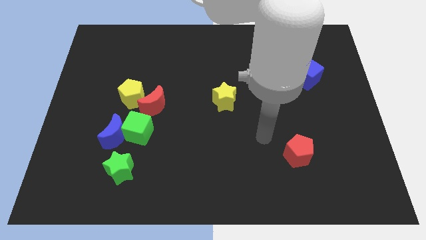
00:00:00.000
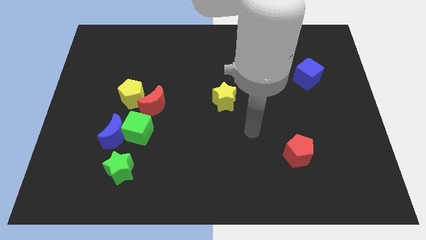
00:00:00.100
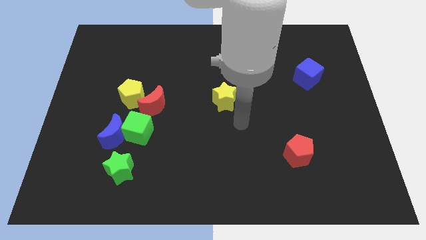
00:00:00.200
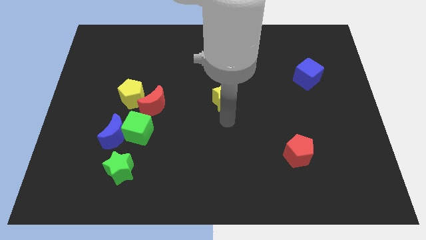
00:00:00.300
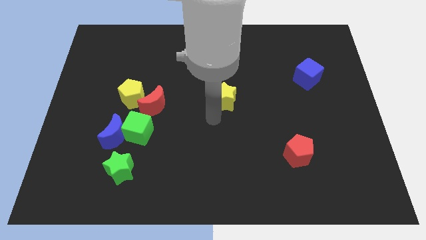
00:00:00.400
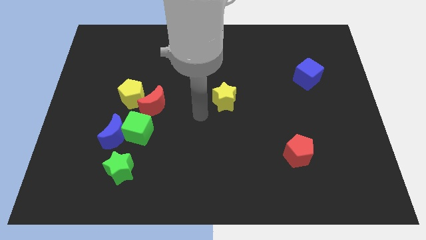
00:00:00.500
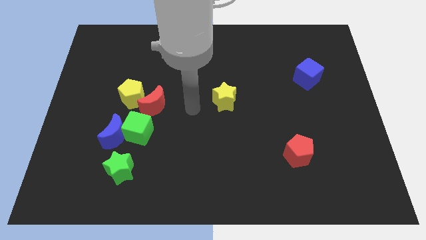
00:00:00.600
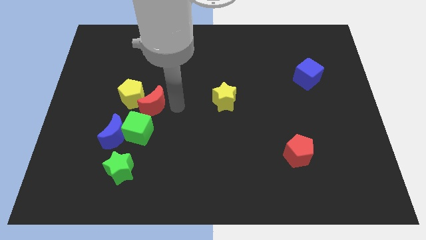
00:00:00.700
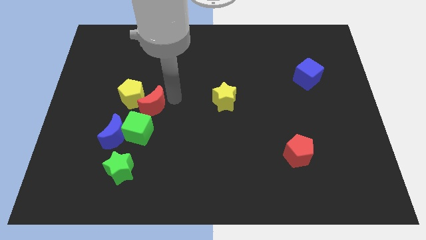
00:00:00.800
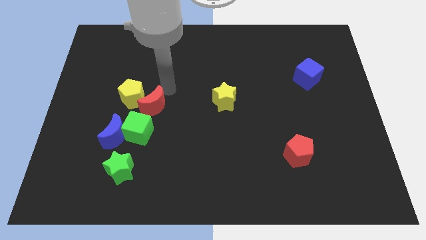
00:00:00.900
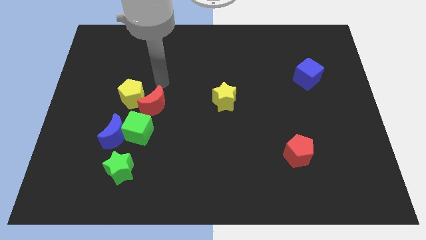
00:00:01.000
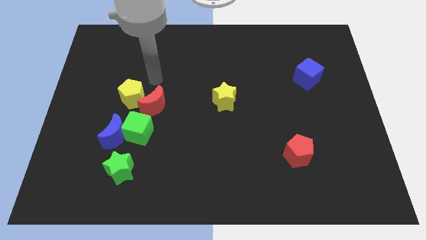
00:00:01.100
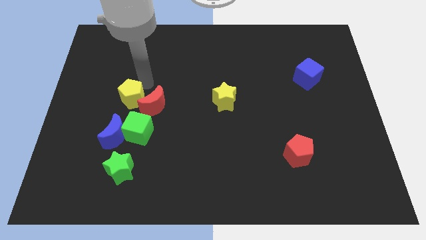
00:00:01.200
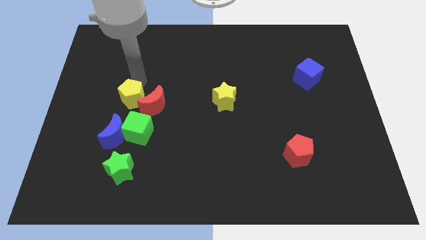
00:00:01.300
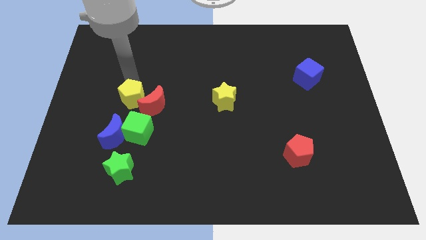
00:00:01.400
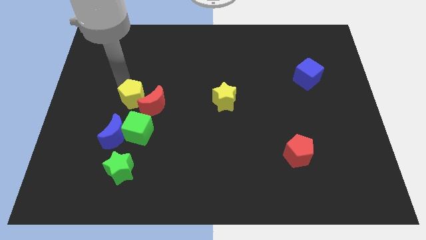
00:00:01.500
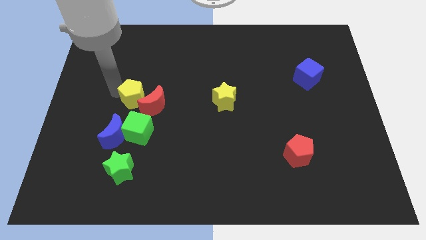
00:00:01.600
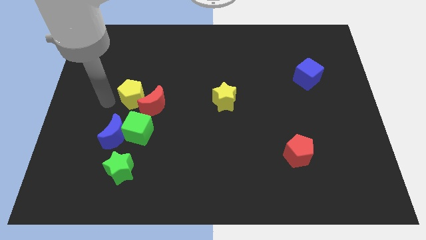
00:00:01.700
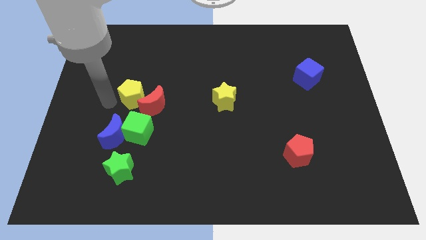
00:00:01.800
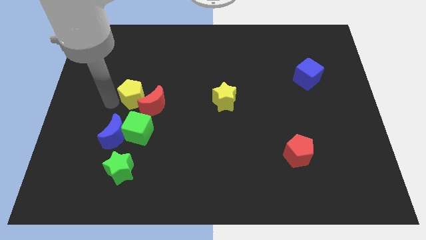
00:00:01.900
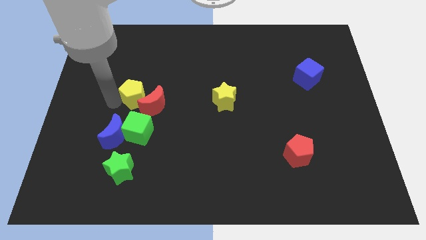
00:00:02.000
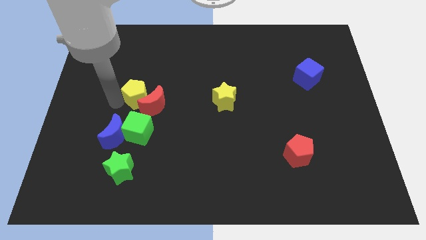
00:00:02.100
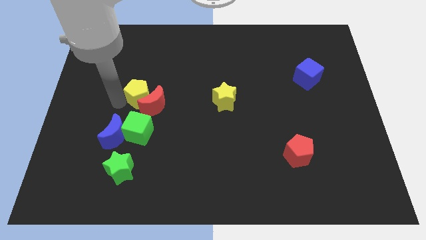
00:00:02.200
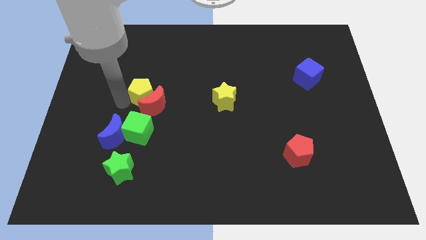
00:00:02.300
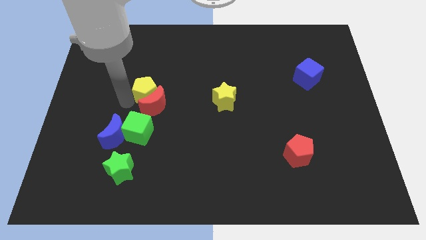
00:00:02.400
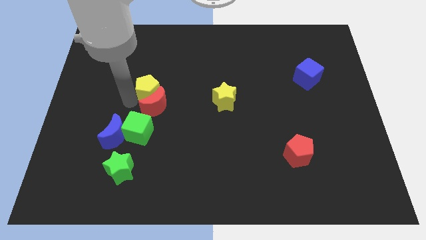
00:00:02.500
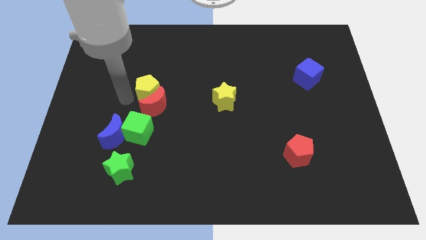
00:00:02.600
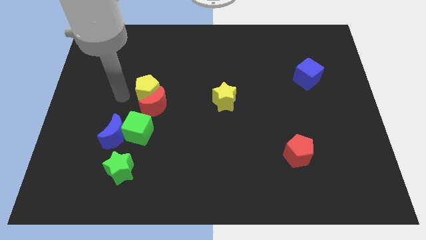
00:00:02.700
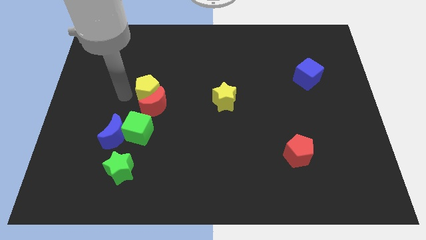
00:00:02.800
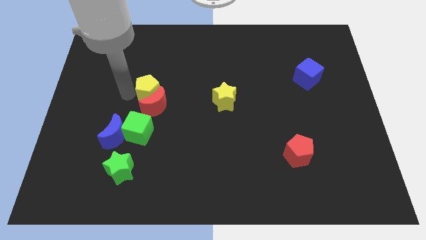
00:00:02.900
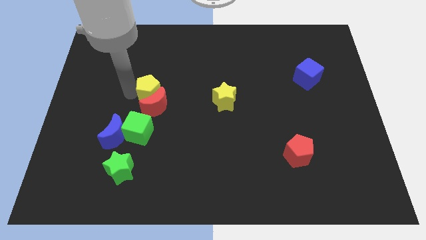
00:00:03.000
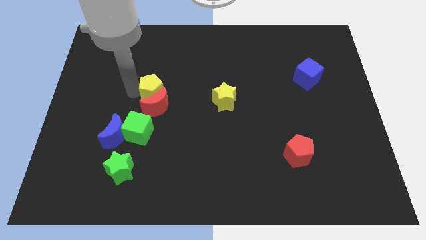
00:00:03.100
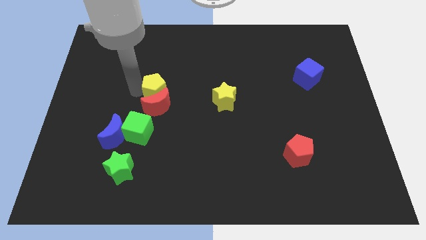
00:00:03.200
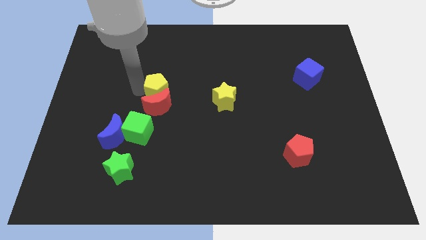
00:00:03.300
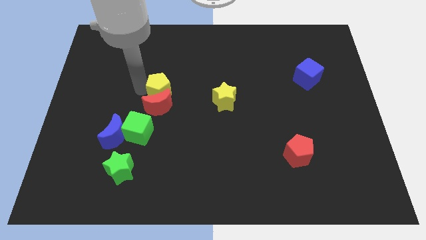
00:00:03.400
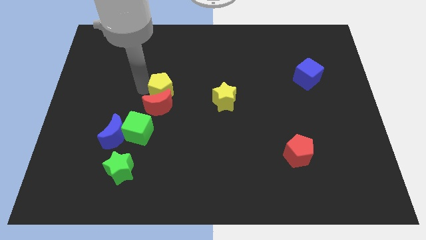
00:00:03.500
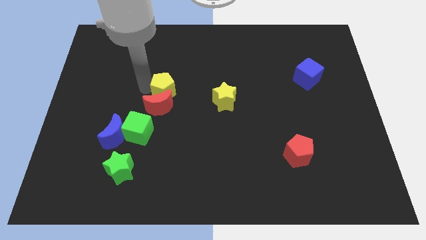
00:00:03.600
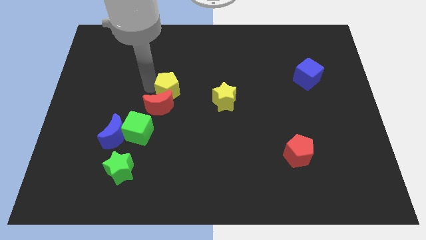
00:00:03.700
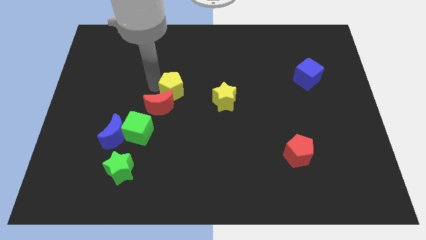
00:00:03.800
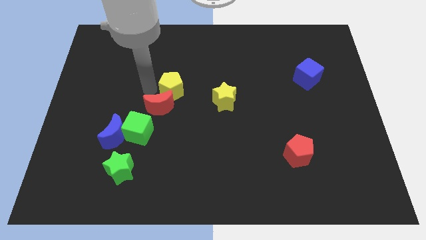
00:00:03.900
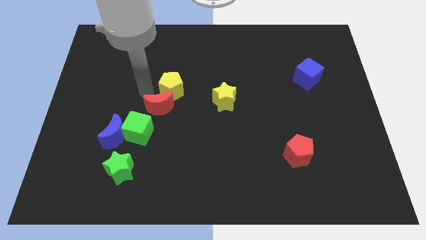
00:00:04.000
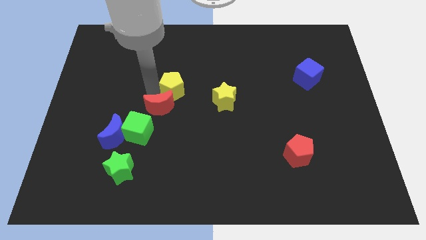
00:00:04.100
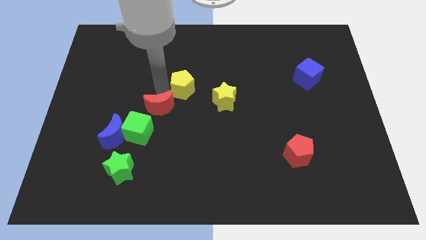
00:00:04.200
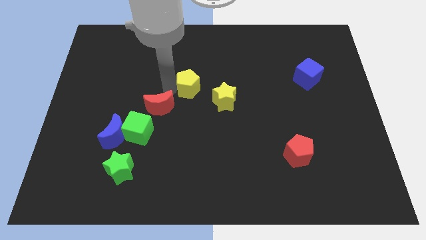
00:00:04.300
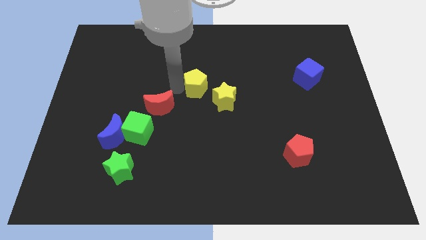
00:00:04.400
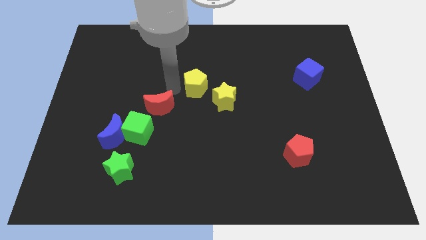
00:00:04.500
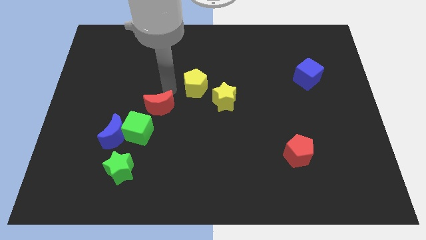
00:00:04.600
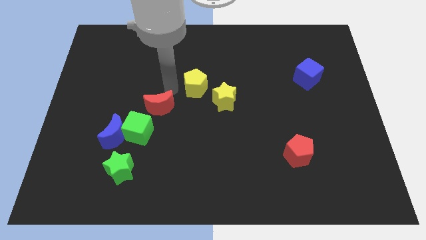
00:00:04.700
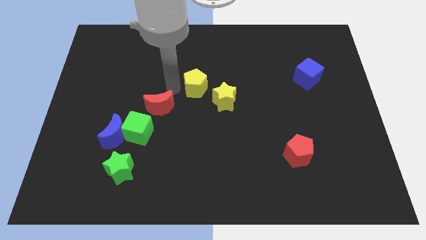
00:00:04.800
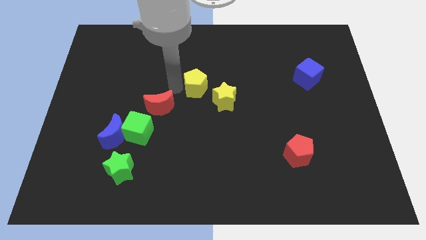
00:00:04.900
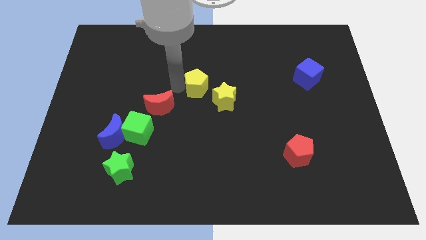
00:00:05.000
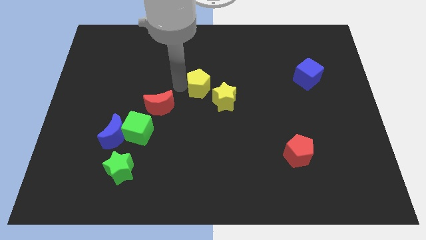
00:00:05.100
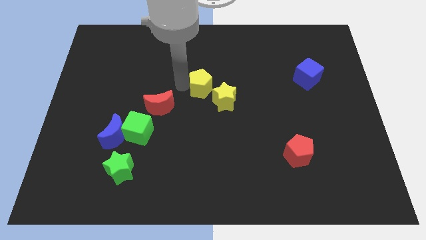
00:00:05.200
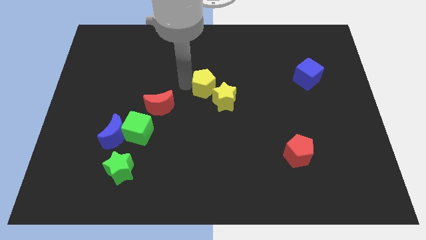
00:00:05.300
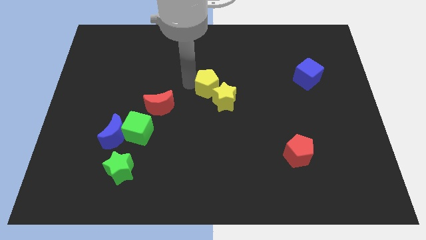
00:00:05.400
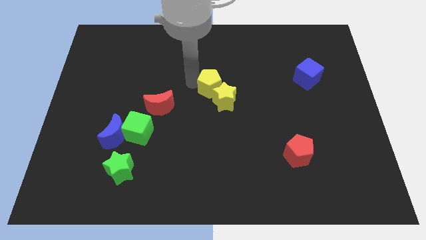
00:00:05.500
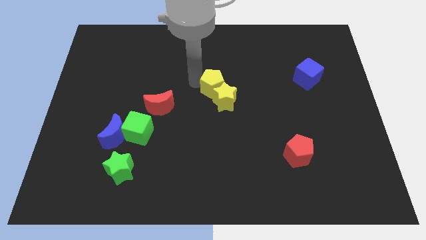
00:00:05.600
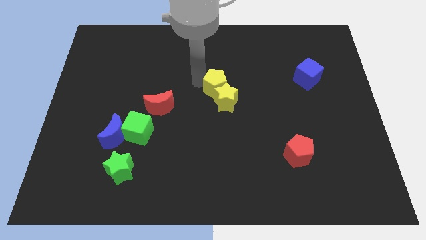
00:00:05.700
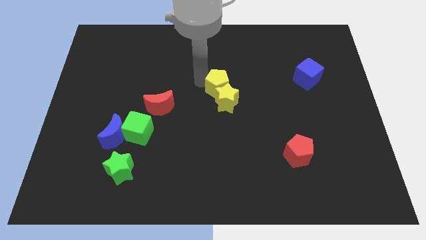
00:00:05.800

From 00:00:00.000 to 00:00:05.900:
push the yellow pentagon to the right

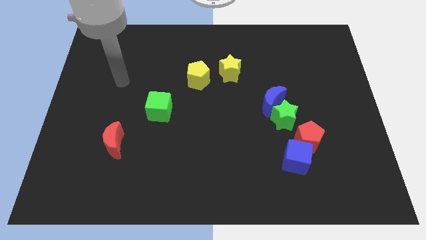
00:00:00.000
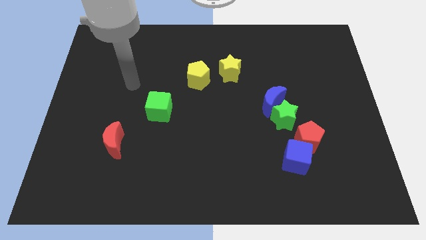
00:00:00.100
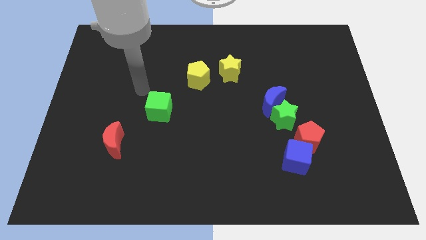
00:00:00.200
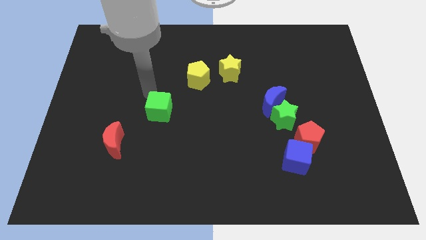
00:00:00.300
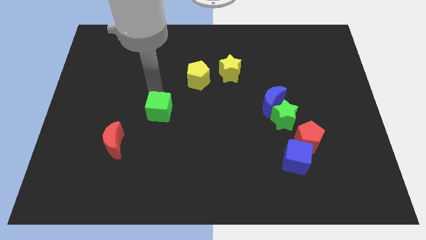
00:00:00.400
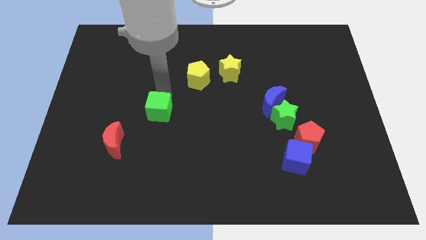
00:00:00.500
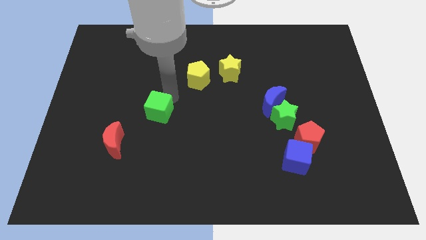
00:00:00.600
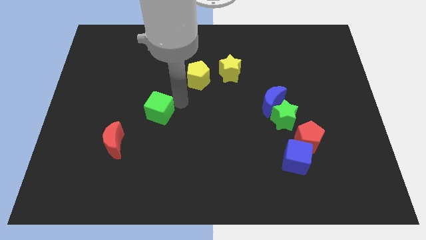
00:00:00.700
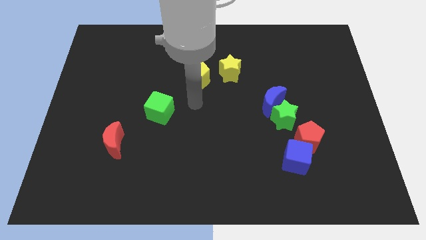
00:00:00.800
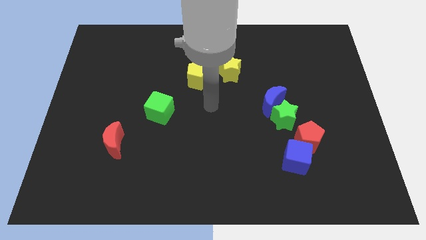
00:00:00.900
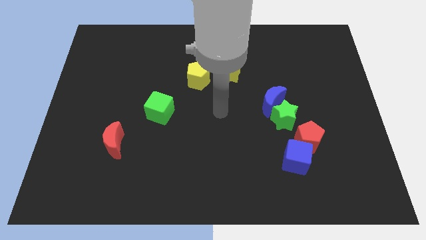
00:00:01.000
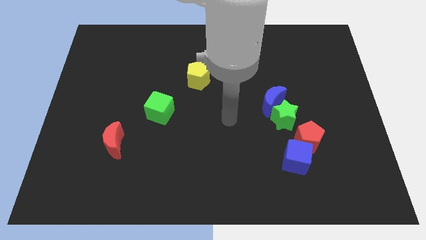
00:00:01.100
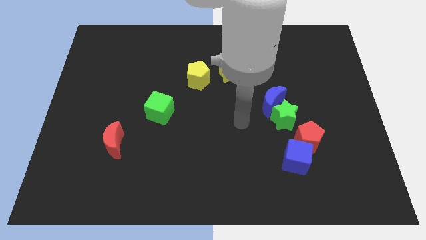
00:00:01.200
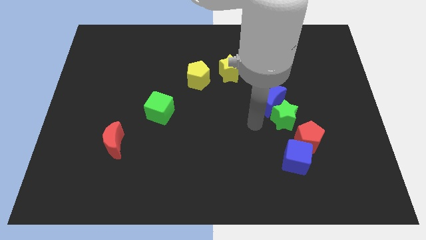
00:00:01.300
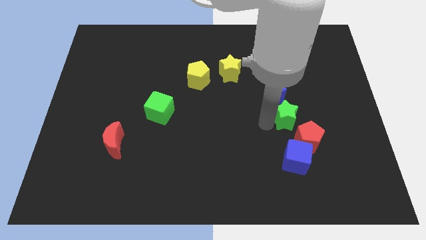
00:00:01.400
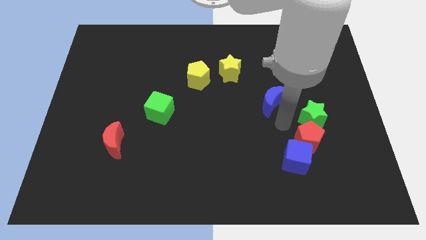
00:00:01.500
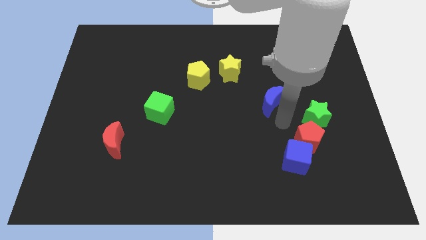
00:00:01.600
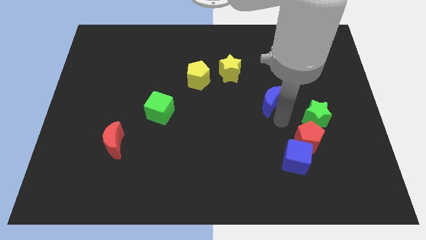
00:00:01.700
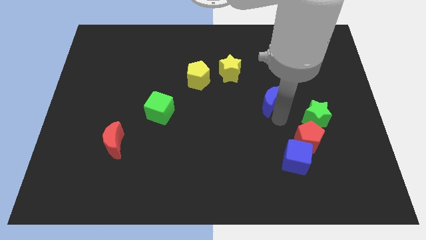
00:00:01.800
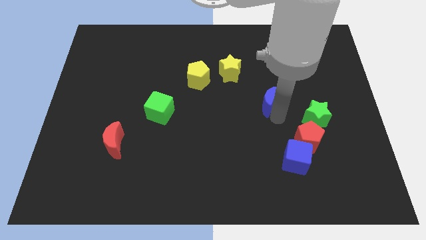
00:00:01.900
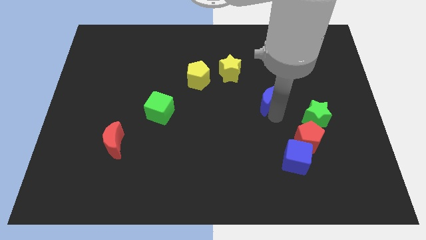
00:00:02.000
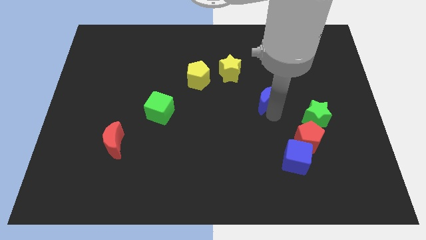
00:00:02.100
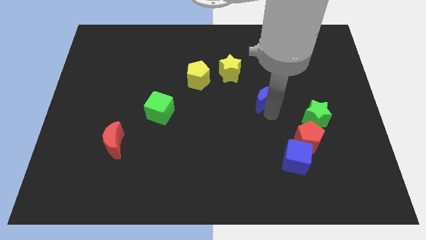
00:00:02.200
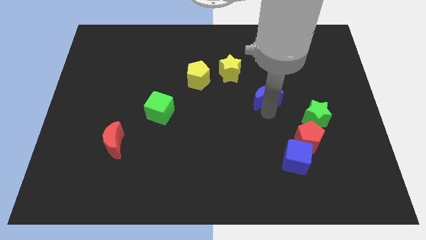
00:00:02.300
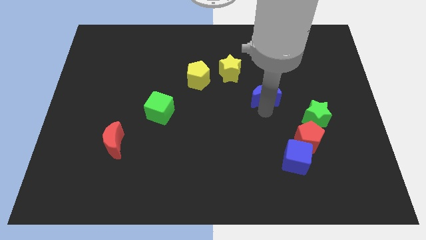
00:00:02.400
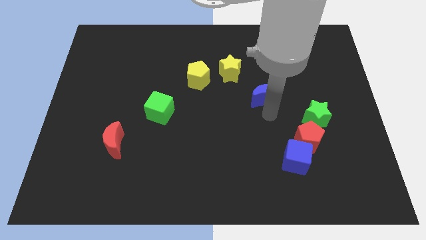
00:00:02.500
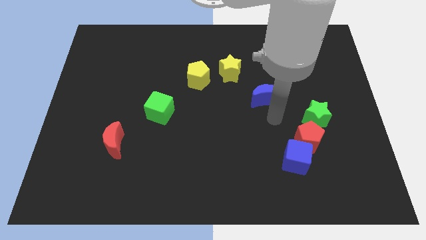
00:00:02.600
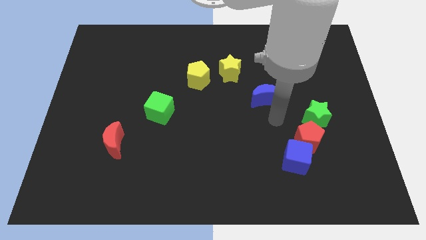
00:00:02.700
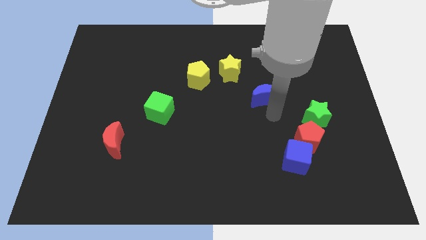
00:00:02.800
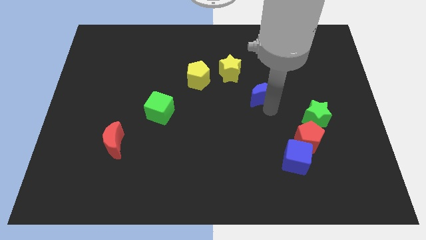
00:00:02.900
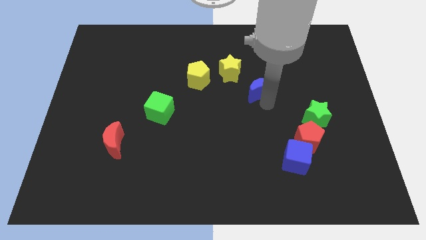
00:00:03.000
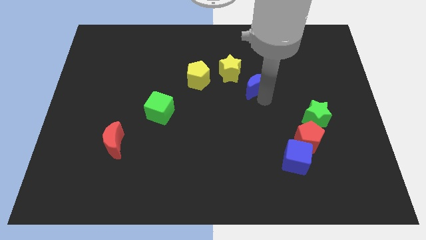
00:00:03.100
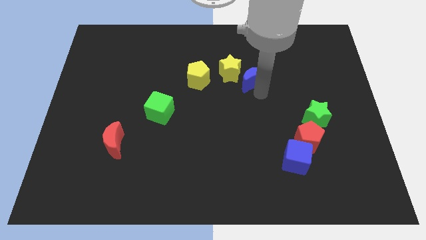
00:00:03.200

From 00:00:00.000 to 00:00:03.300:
move the blue moon a little diagonally up and left
